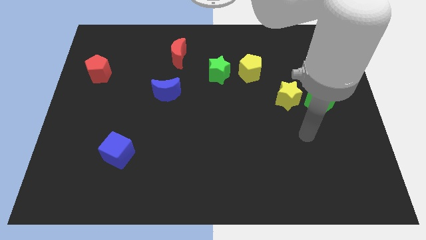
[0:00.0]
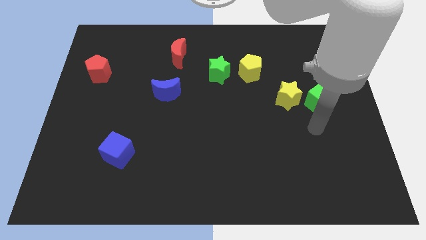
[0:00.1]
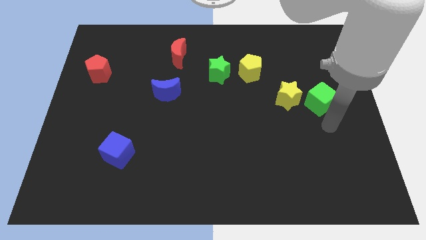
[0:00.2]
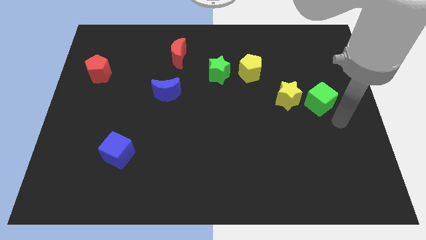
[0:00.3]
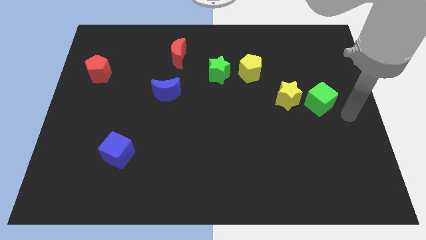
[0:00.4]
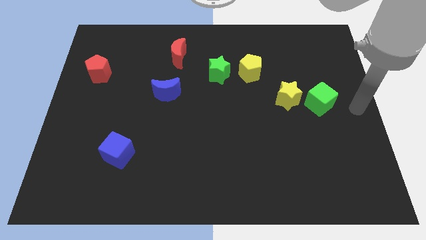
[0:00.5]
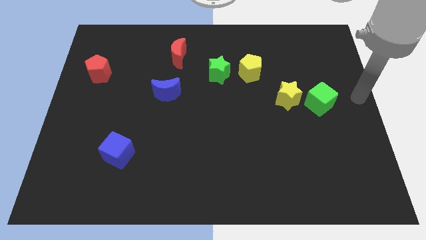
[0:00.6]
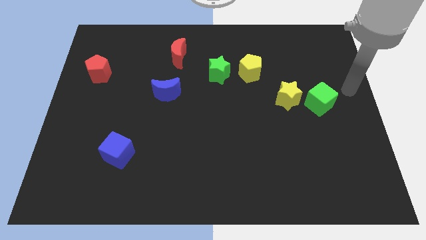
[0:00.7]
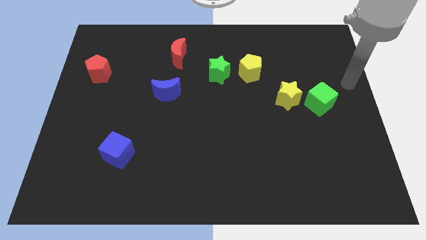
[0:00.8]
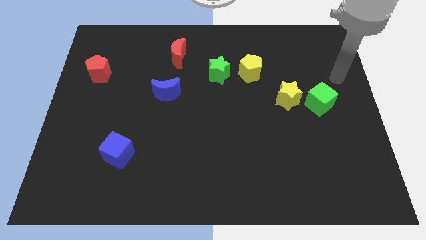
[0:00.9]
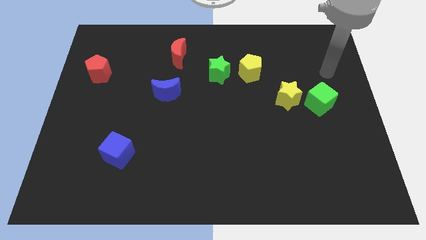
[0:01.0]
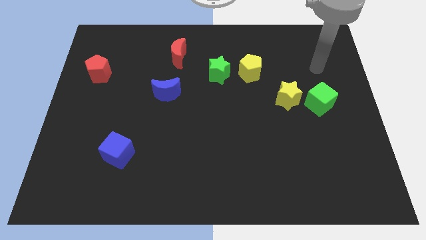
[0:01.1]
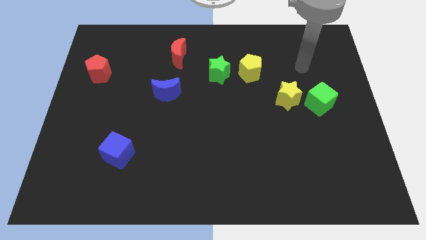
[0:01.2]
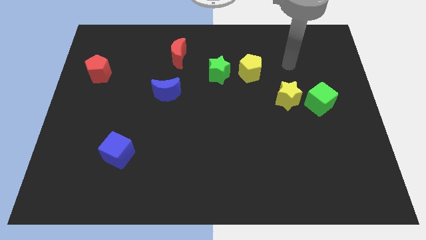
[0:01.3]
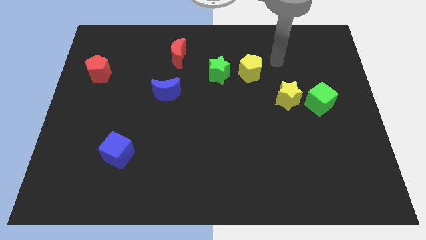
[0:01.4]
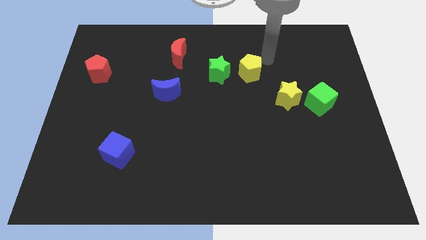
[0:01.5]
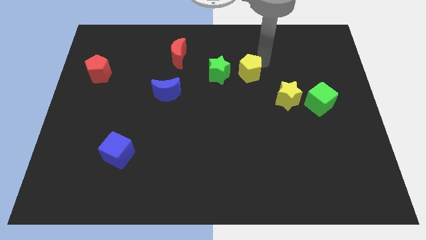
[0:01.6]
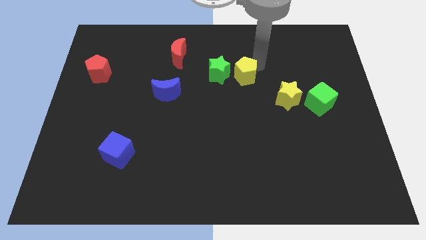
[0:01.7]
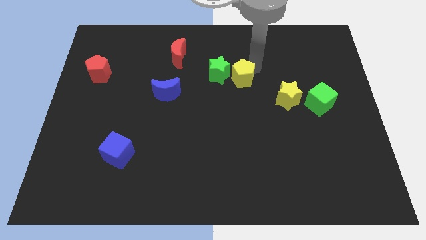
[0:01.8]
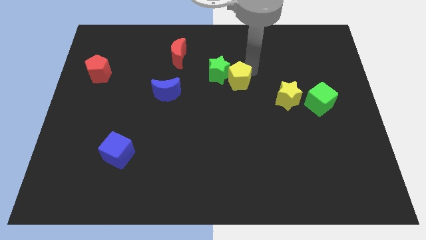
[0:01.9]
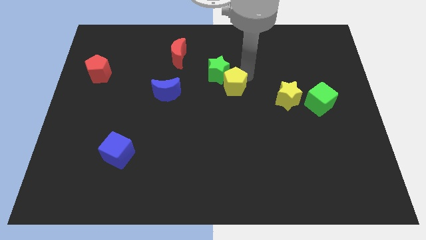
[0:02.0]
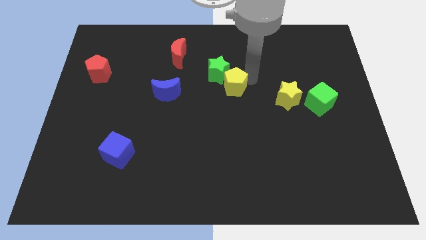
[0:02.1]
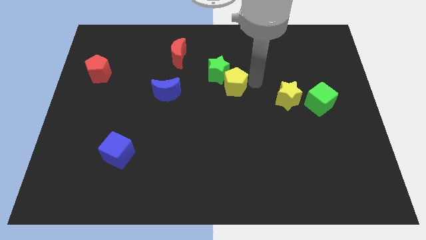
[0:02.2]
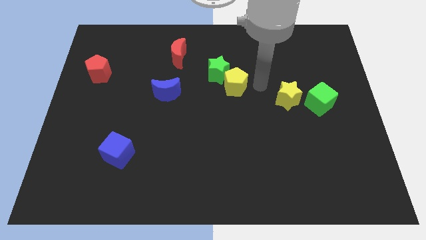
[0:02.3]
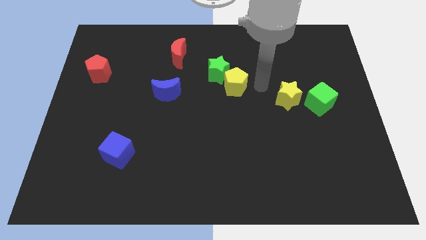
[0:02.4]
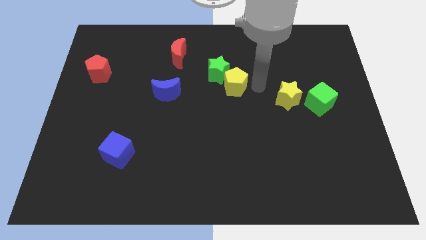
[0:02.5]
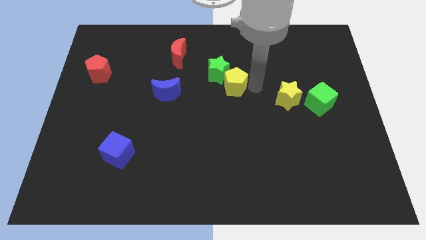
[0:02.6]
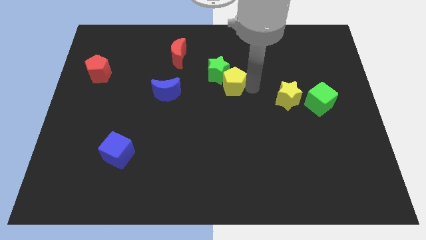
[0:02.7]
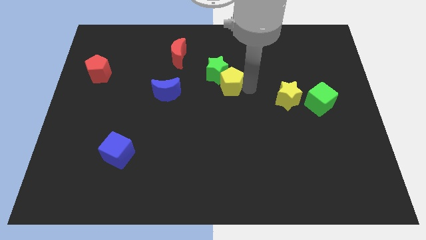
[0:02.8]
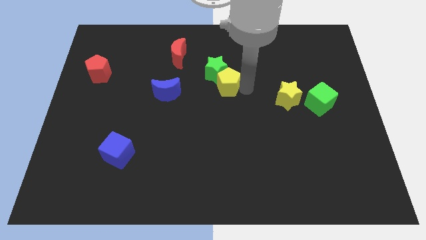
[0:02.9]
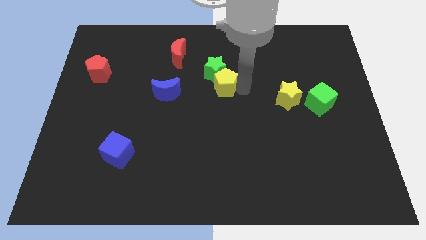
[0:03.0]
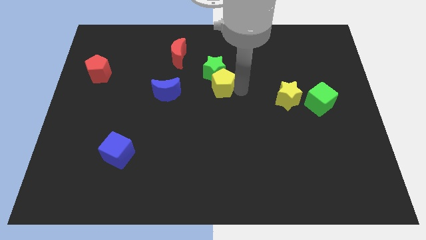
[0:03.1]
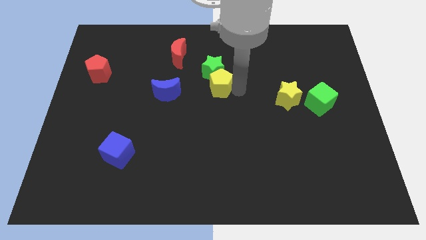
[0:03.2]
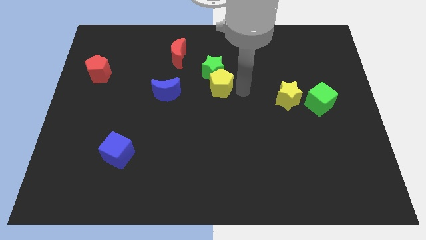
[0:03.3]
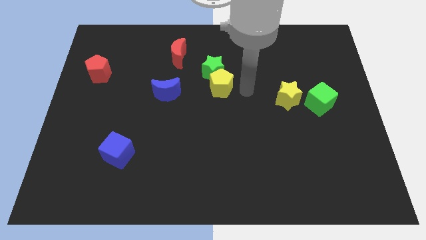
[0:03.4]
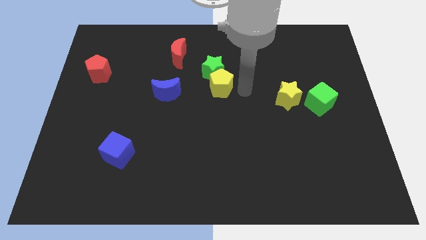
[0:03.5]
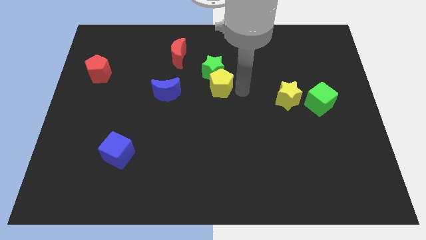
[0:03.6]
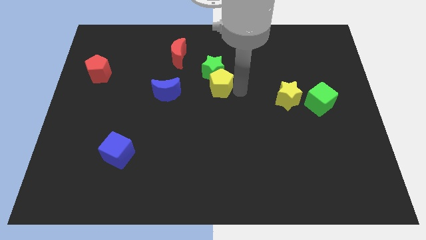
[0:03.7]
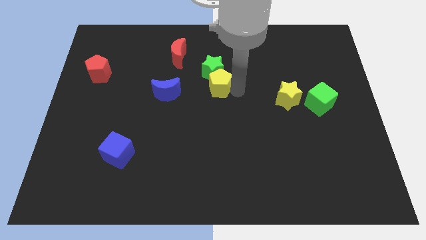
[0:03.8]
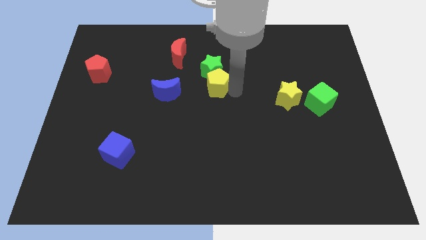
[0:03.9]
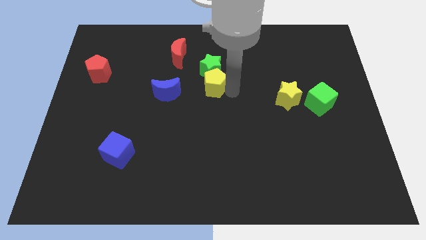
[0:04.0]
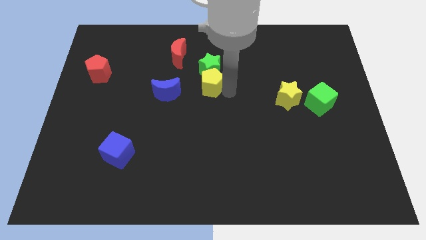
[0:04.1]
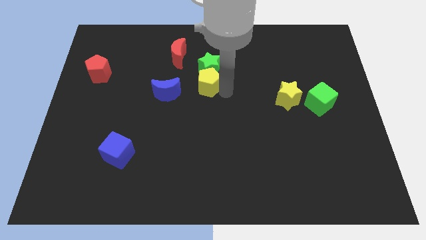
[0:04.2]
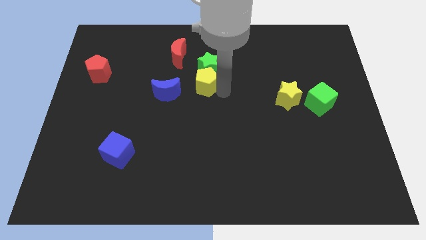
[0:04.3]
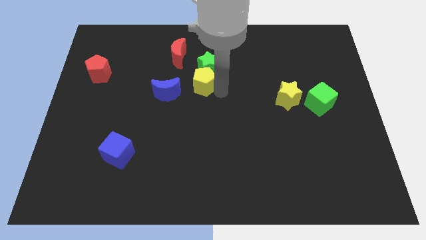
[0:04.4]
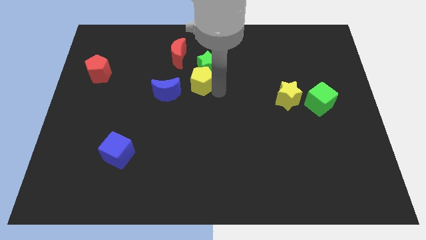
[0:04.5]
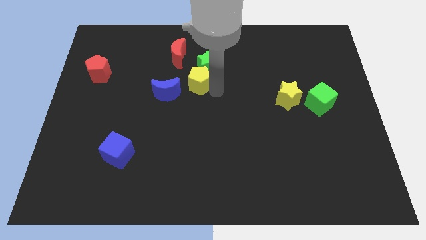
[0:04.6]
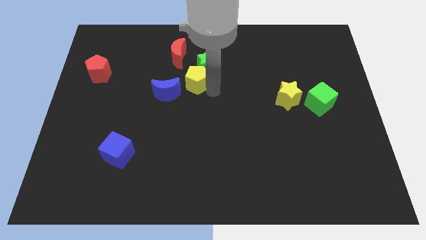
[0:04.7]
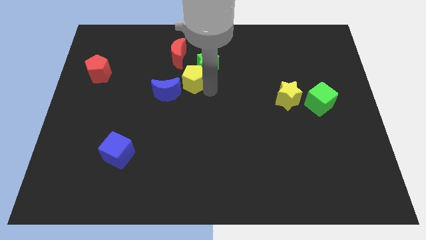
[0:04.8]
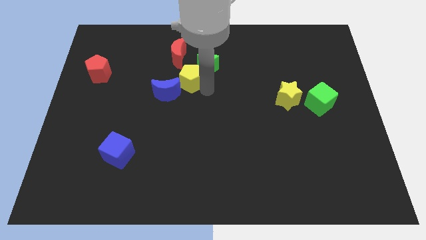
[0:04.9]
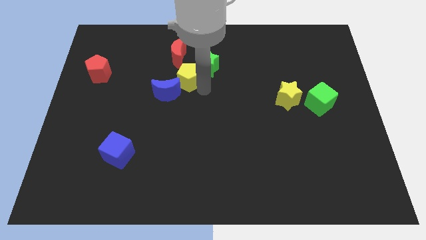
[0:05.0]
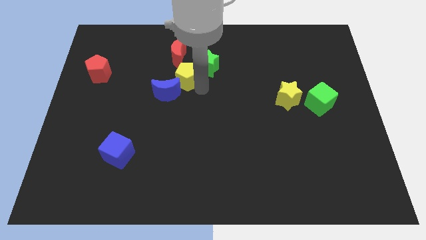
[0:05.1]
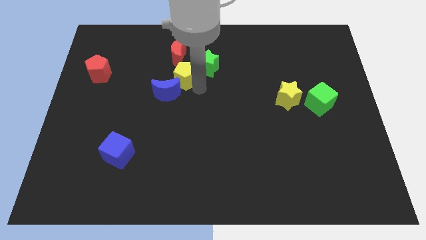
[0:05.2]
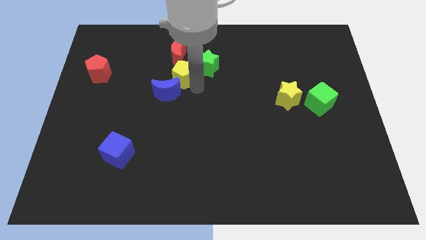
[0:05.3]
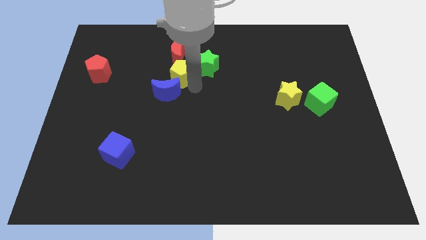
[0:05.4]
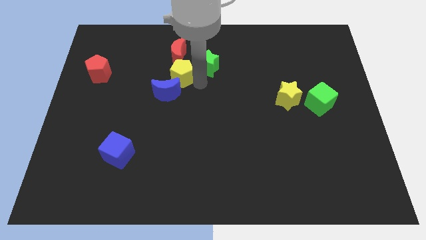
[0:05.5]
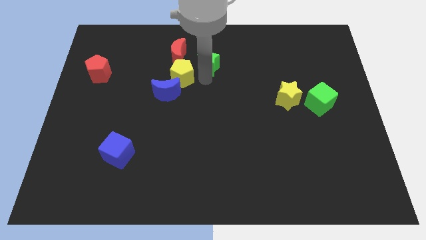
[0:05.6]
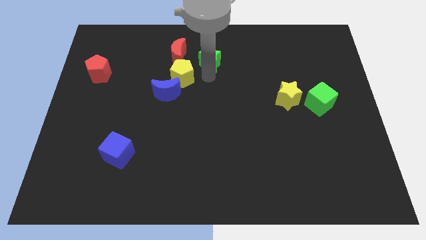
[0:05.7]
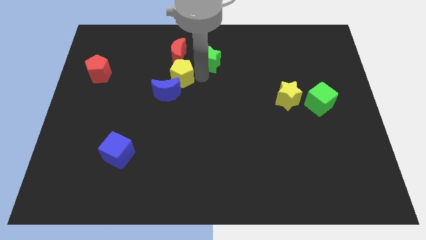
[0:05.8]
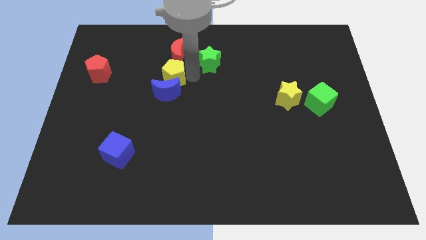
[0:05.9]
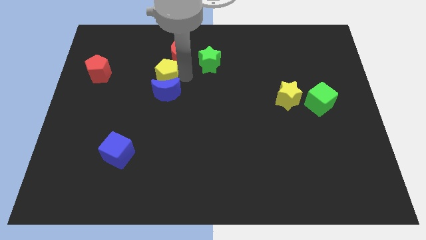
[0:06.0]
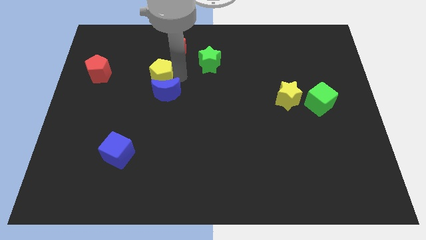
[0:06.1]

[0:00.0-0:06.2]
move the yellow pentagon to the right side of the red pentagon

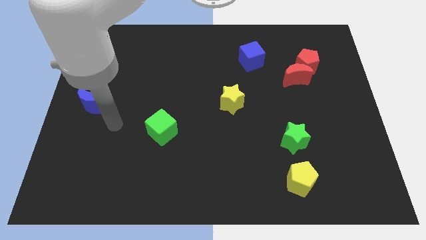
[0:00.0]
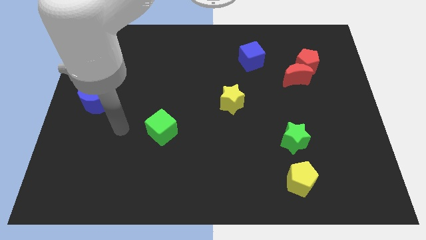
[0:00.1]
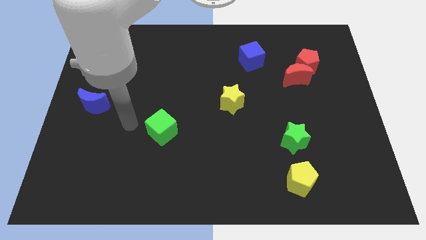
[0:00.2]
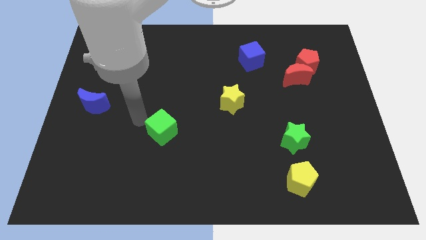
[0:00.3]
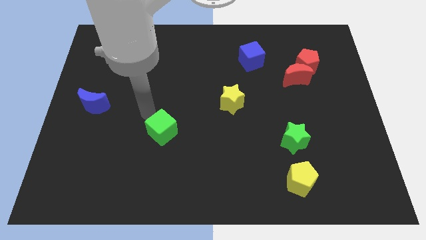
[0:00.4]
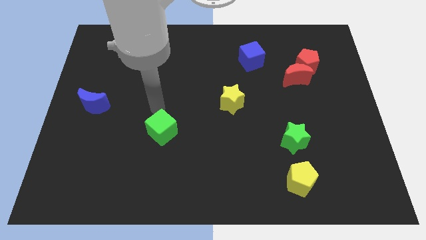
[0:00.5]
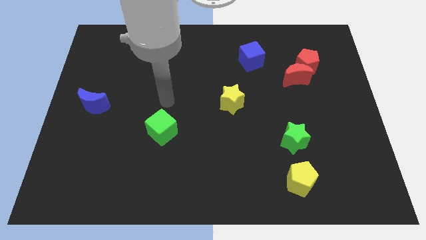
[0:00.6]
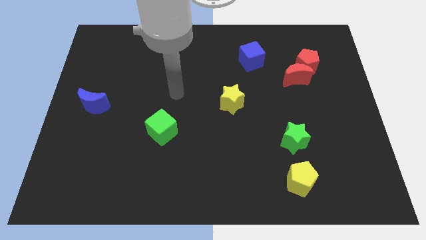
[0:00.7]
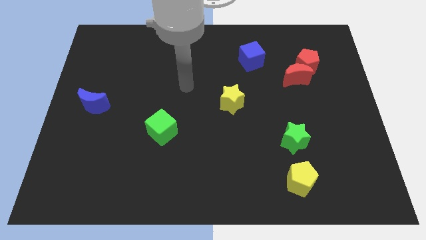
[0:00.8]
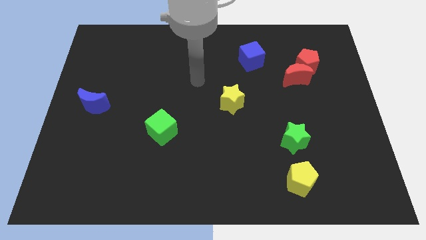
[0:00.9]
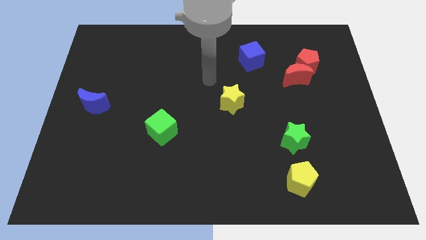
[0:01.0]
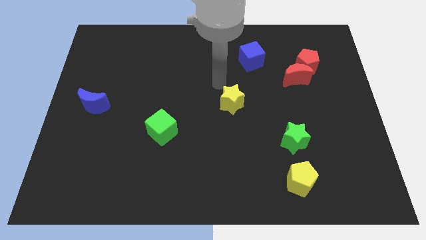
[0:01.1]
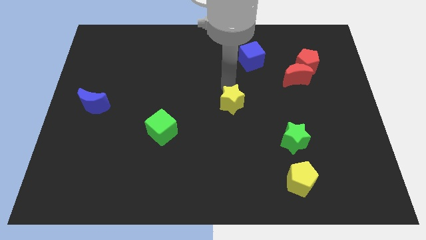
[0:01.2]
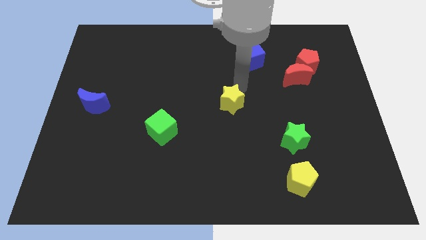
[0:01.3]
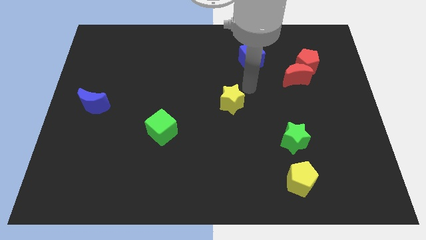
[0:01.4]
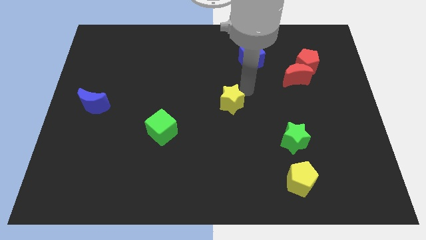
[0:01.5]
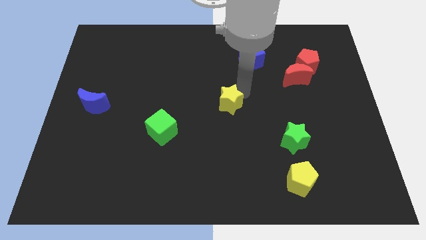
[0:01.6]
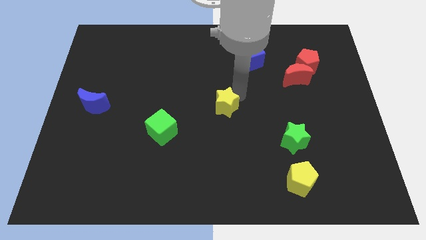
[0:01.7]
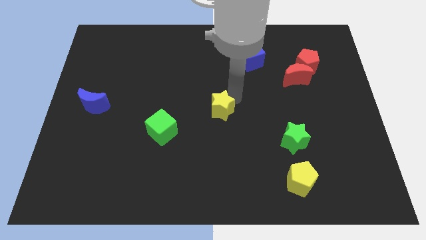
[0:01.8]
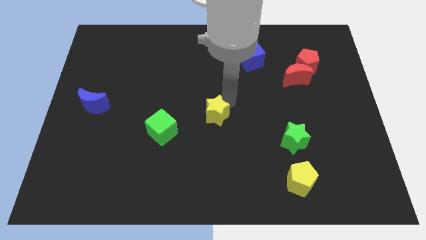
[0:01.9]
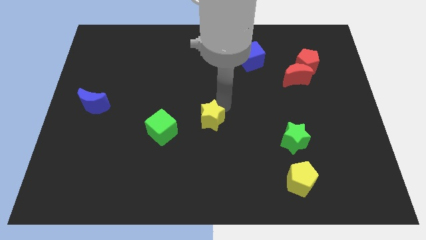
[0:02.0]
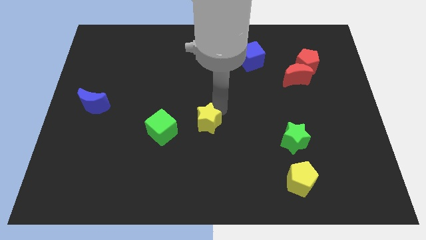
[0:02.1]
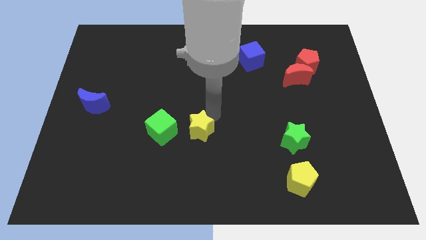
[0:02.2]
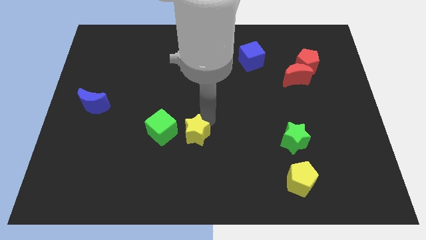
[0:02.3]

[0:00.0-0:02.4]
move the yellow star to the bottom right side of the green cube
